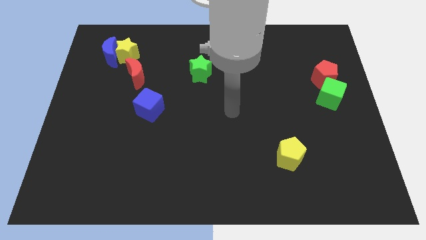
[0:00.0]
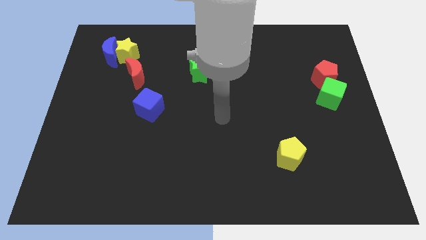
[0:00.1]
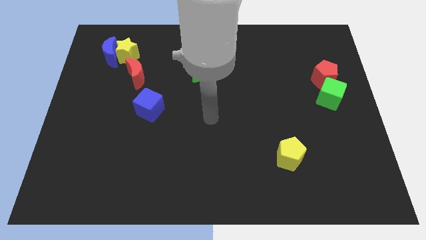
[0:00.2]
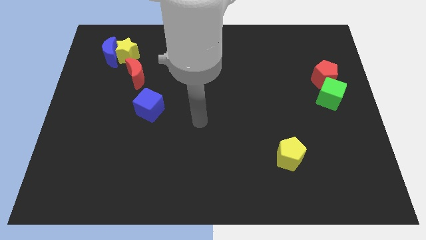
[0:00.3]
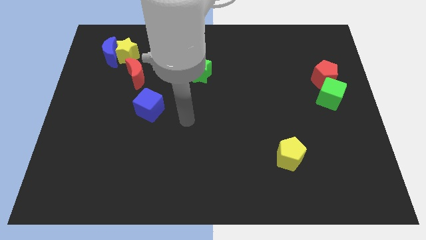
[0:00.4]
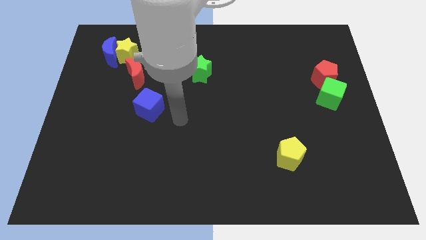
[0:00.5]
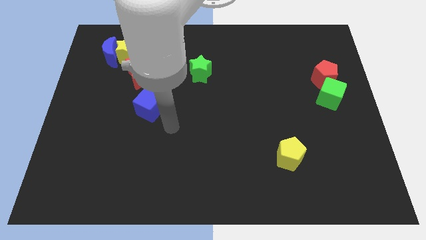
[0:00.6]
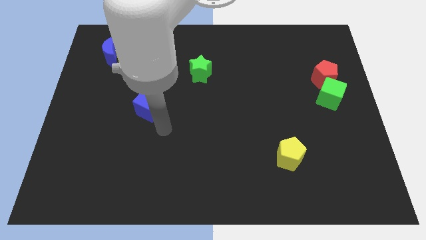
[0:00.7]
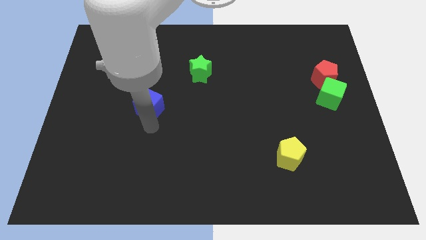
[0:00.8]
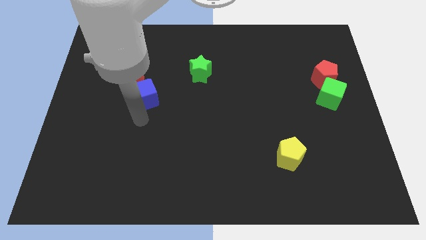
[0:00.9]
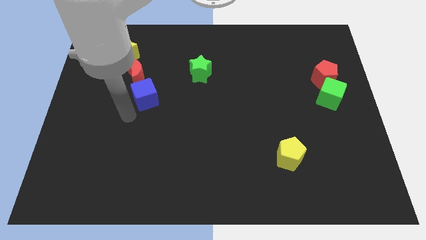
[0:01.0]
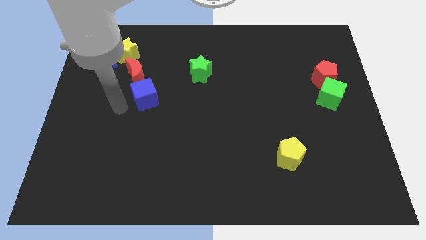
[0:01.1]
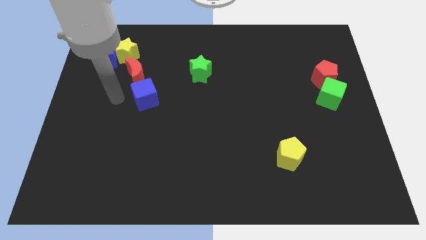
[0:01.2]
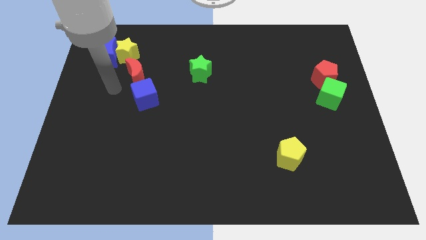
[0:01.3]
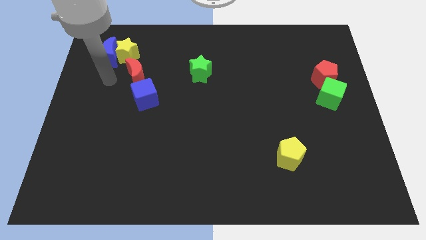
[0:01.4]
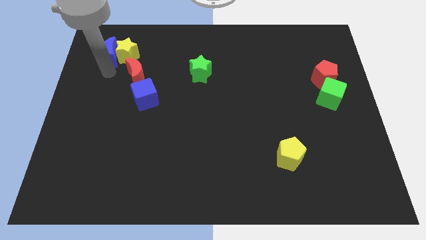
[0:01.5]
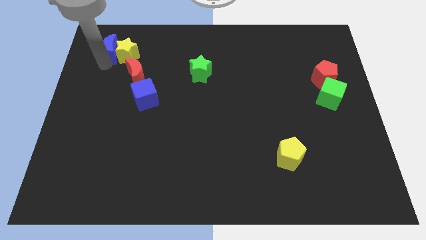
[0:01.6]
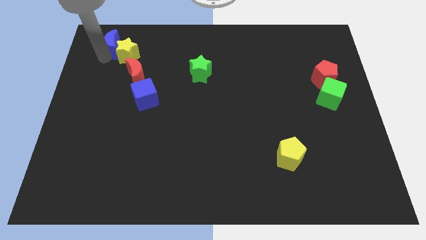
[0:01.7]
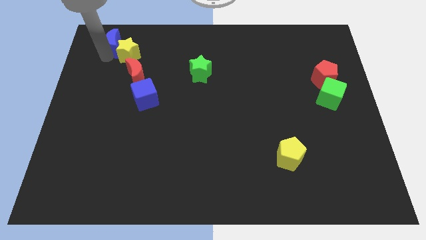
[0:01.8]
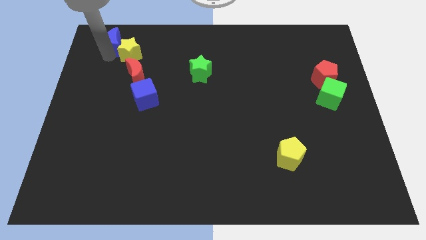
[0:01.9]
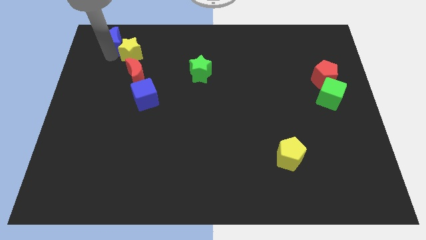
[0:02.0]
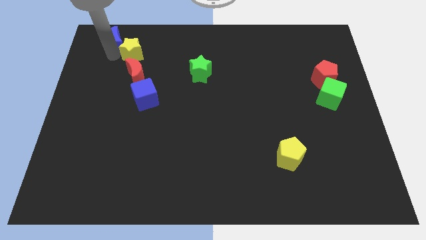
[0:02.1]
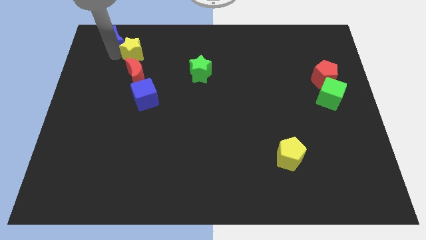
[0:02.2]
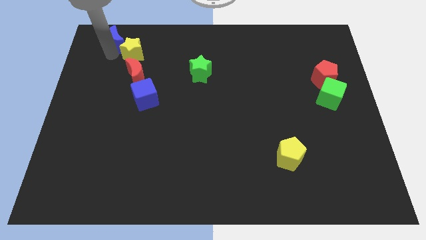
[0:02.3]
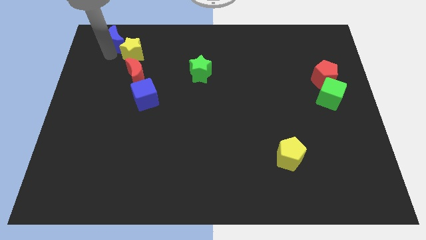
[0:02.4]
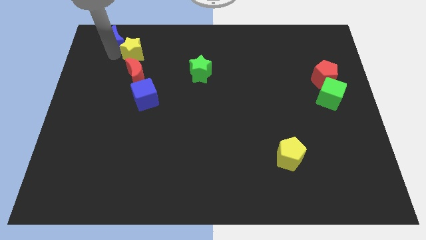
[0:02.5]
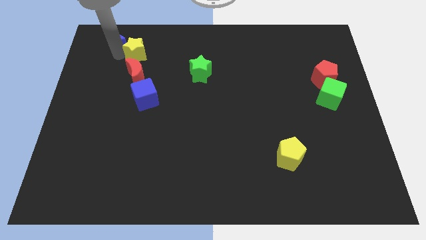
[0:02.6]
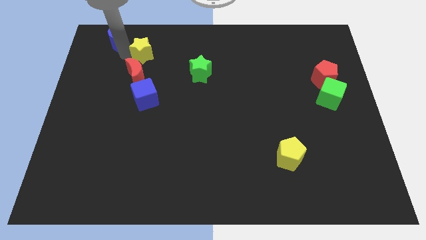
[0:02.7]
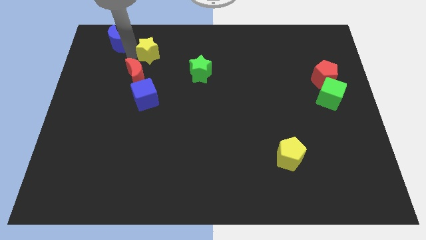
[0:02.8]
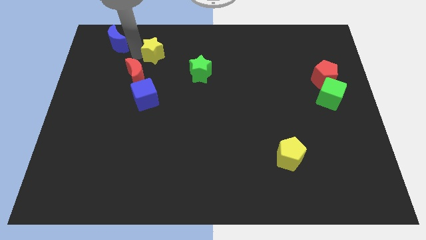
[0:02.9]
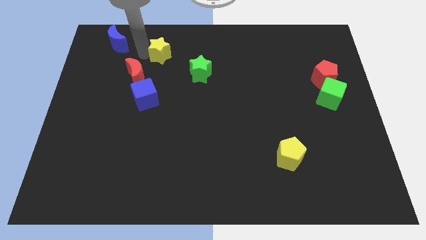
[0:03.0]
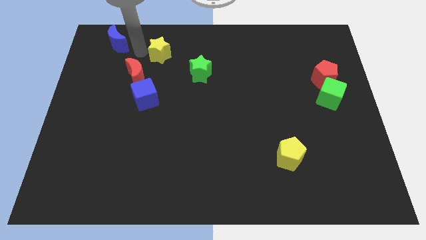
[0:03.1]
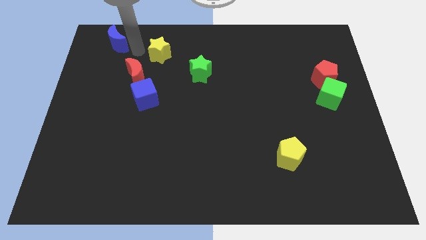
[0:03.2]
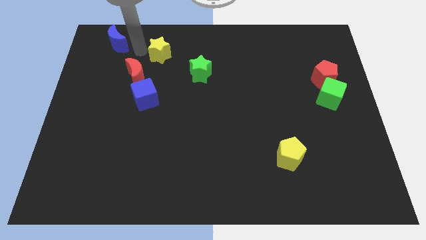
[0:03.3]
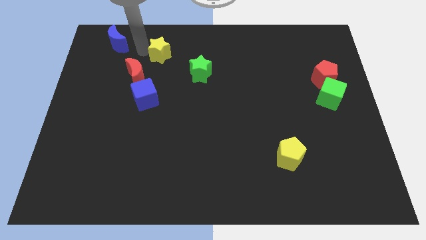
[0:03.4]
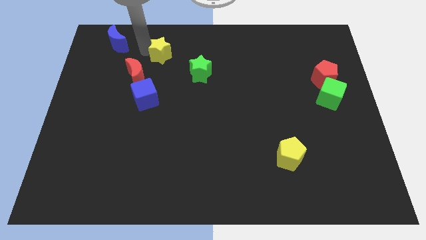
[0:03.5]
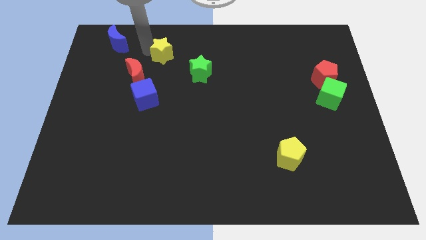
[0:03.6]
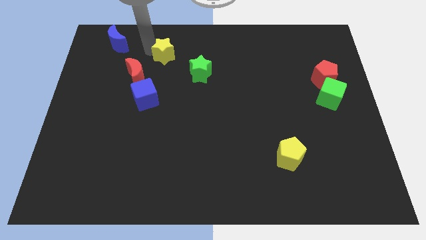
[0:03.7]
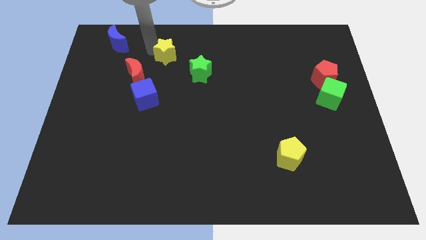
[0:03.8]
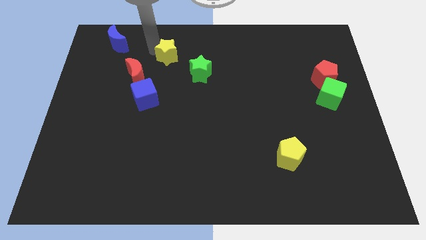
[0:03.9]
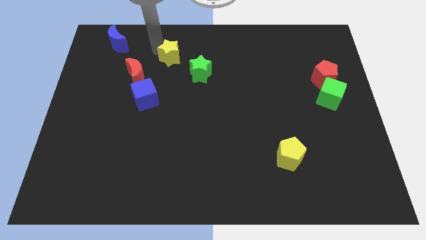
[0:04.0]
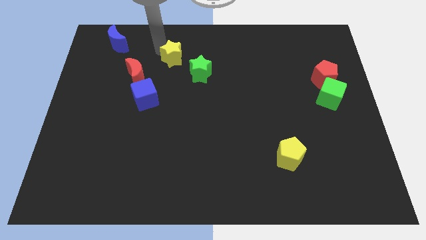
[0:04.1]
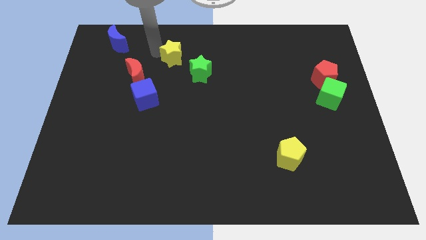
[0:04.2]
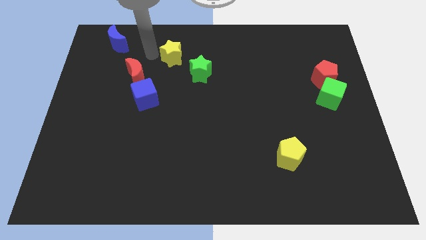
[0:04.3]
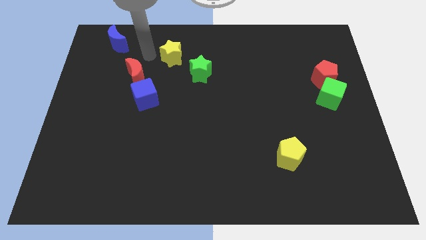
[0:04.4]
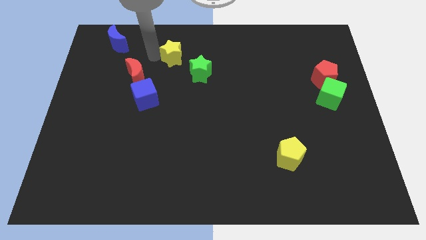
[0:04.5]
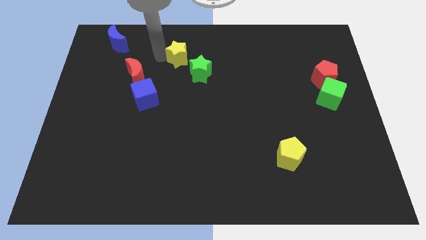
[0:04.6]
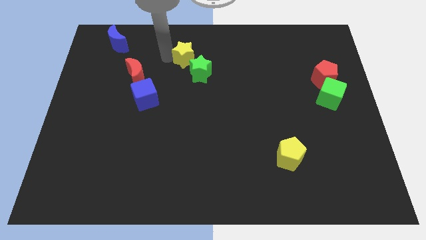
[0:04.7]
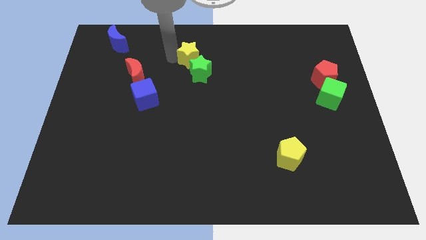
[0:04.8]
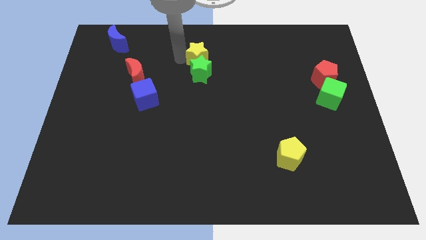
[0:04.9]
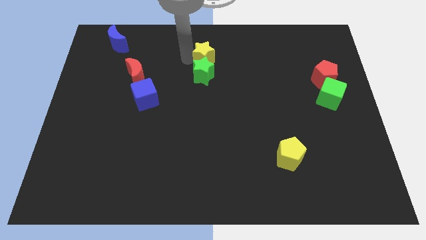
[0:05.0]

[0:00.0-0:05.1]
slide the yellow star to the right

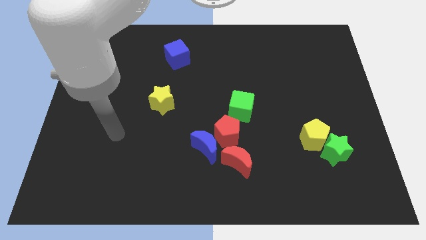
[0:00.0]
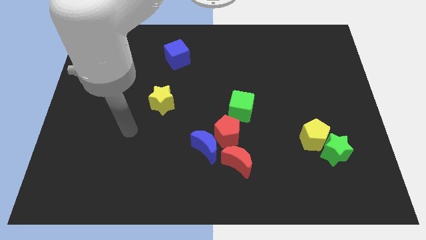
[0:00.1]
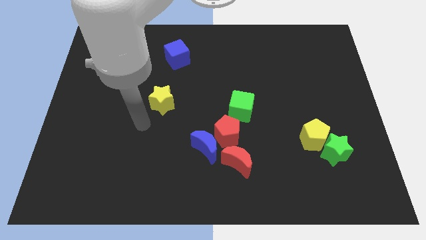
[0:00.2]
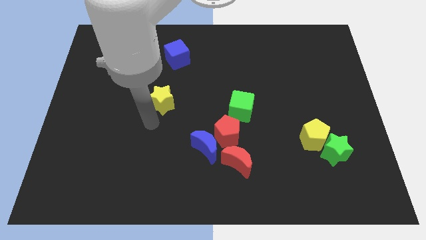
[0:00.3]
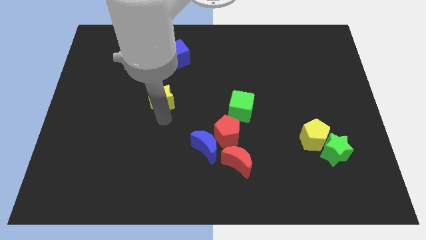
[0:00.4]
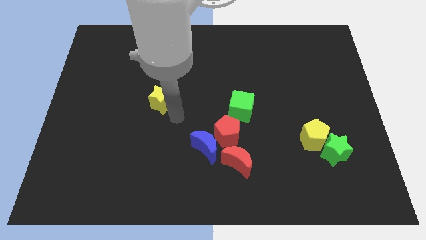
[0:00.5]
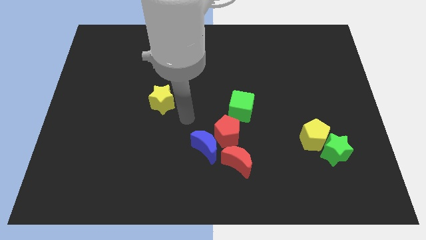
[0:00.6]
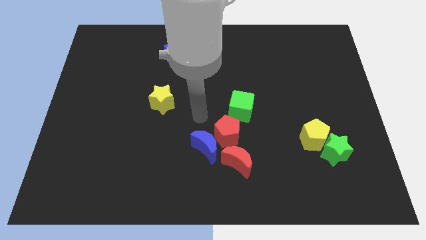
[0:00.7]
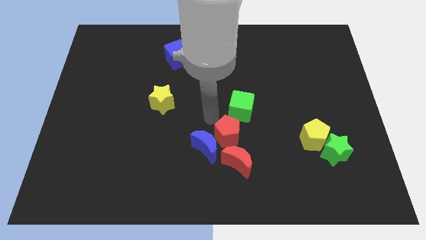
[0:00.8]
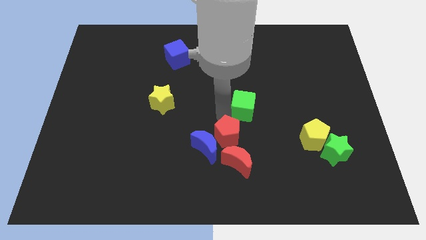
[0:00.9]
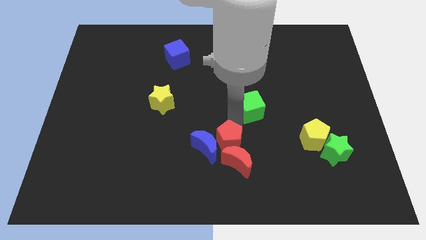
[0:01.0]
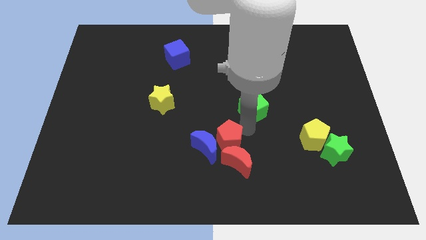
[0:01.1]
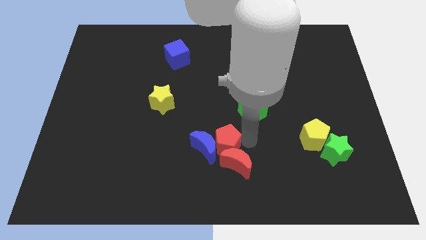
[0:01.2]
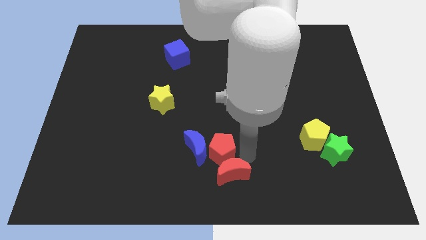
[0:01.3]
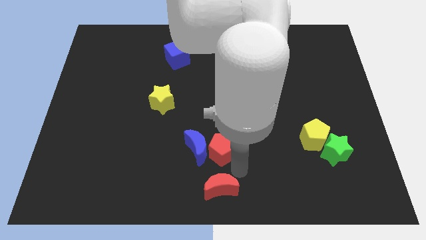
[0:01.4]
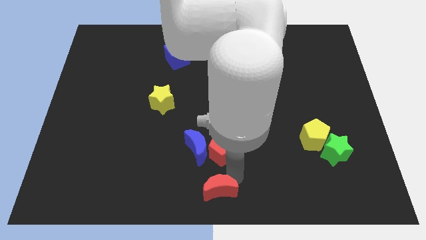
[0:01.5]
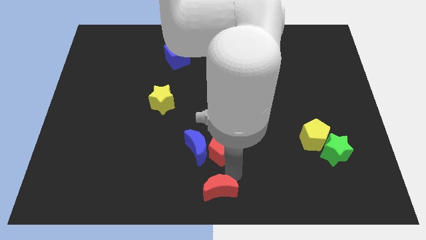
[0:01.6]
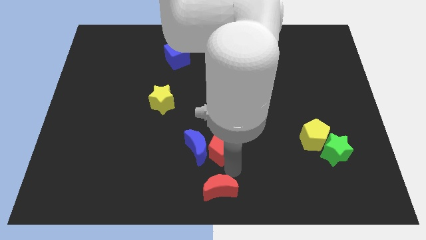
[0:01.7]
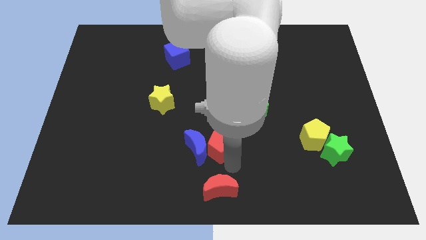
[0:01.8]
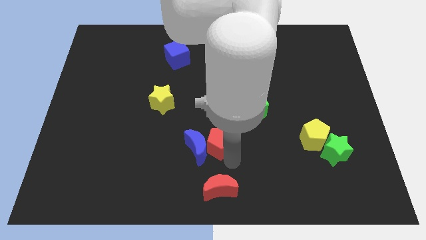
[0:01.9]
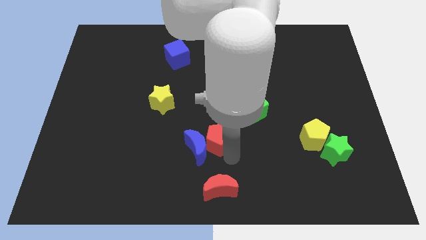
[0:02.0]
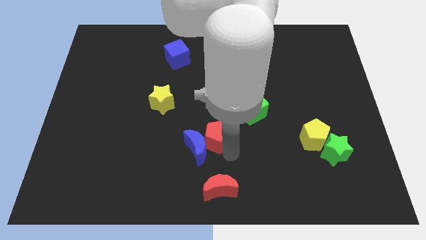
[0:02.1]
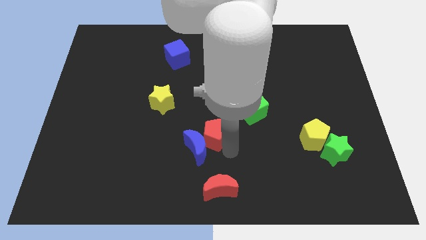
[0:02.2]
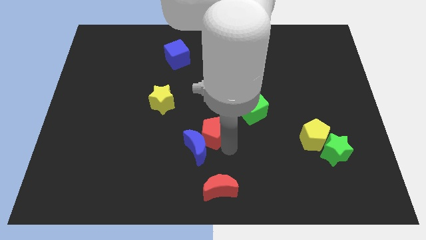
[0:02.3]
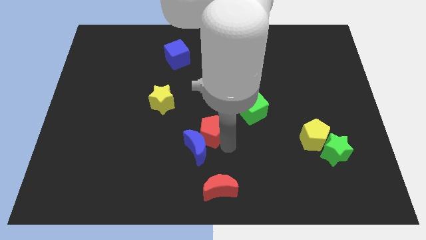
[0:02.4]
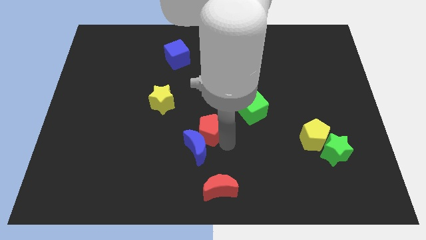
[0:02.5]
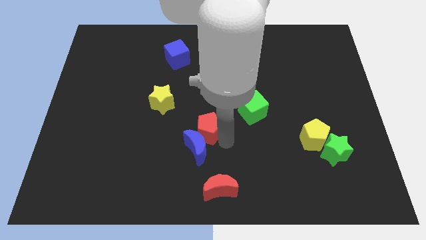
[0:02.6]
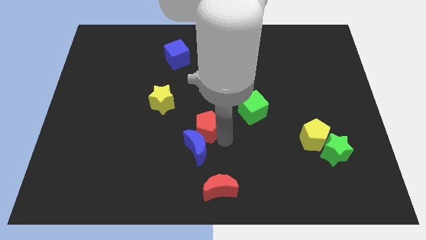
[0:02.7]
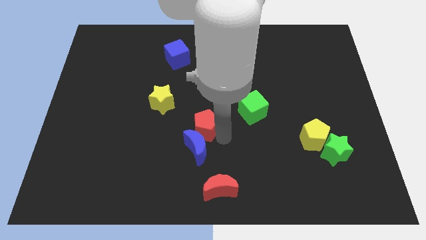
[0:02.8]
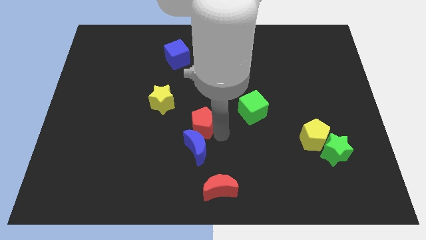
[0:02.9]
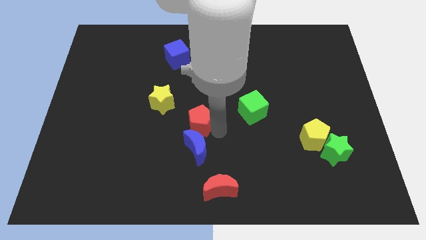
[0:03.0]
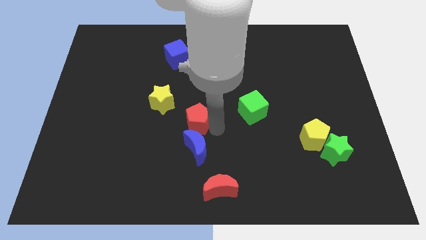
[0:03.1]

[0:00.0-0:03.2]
slightly move the red pentagon diagonally up and to the left
